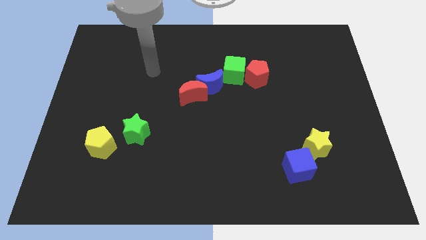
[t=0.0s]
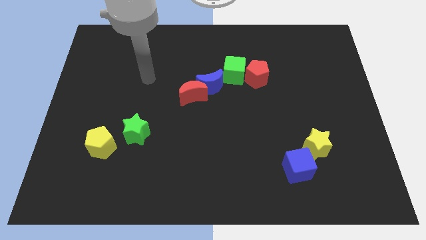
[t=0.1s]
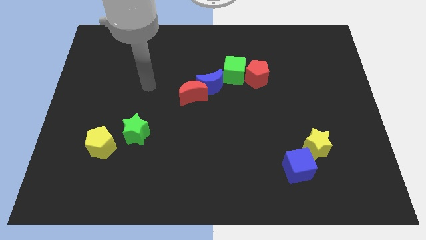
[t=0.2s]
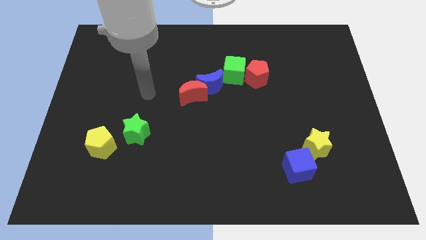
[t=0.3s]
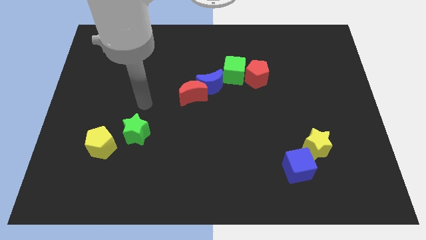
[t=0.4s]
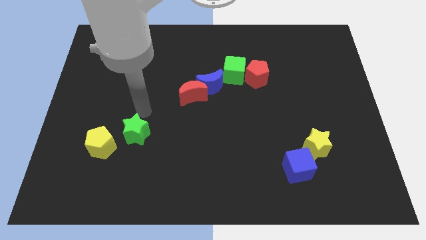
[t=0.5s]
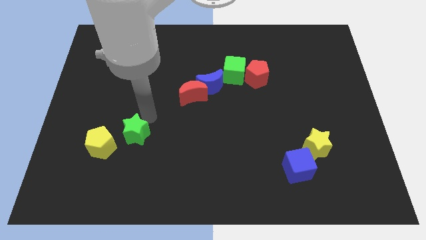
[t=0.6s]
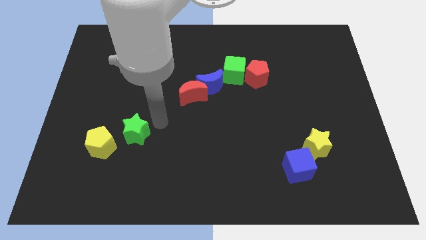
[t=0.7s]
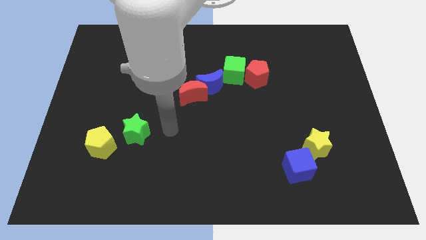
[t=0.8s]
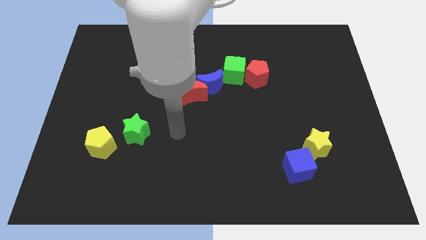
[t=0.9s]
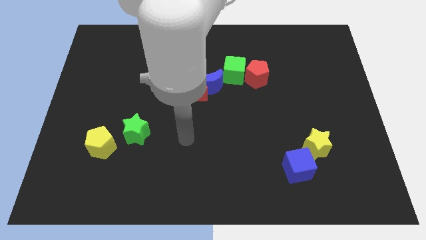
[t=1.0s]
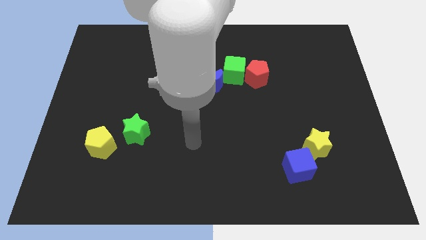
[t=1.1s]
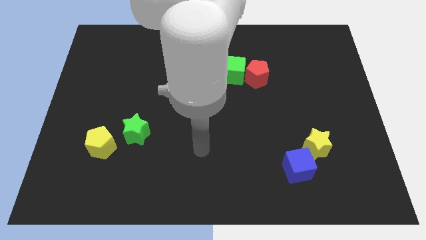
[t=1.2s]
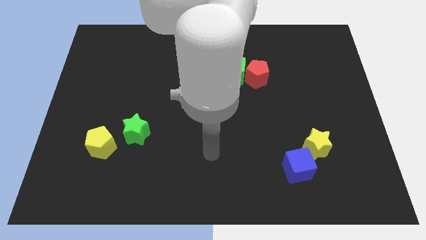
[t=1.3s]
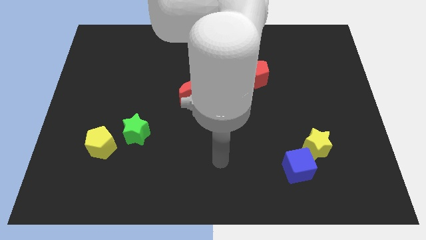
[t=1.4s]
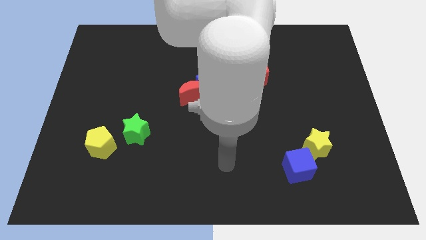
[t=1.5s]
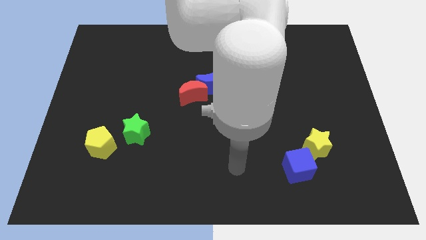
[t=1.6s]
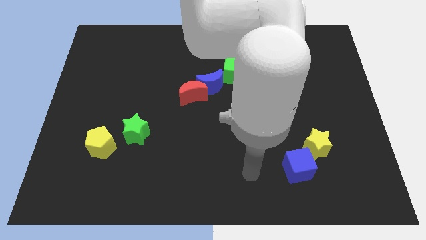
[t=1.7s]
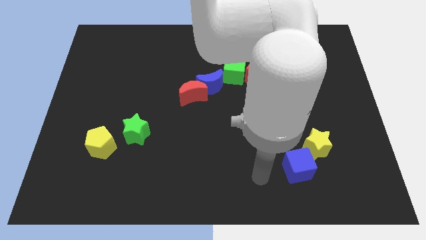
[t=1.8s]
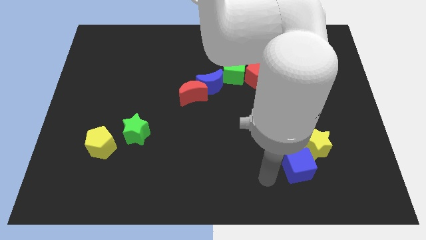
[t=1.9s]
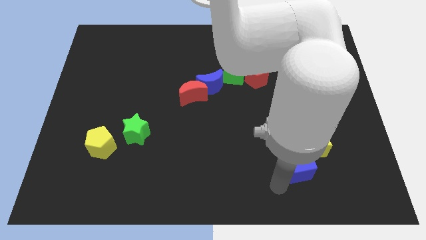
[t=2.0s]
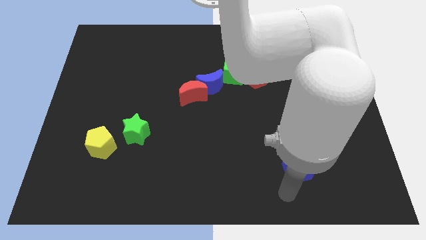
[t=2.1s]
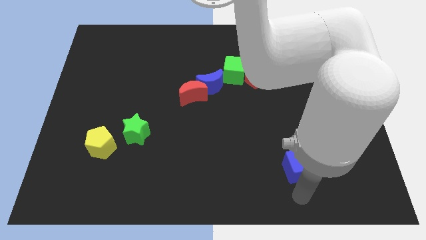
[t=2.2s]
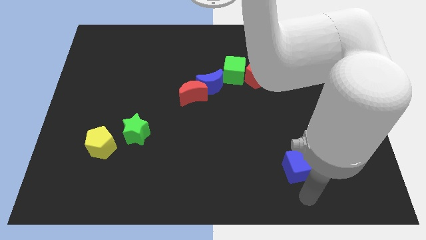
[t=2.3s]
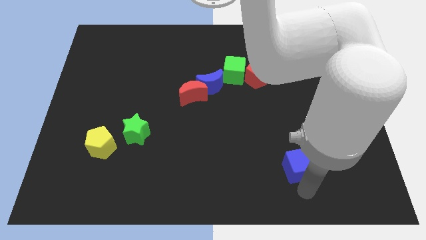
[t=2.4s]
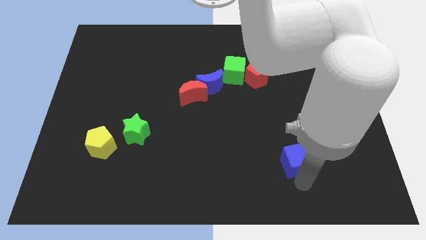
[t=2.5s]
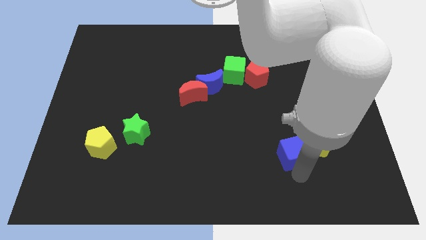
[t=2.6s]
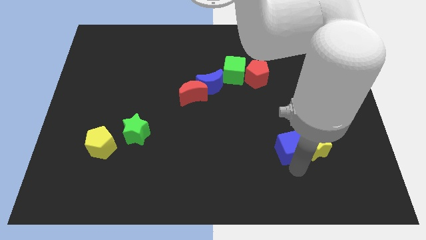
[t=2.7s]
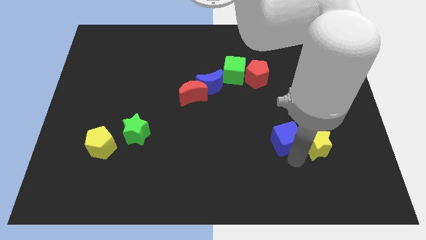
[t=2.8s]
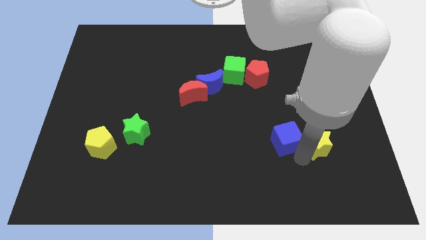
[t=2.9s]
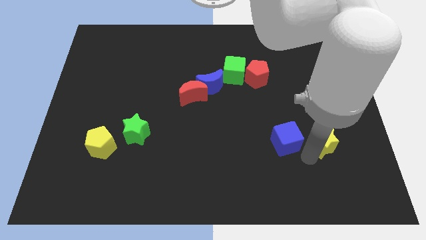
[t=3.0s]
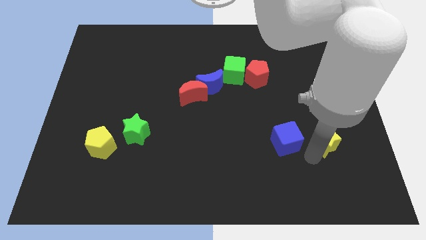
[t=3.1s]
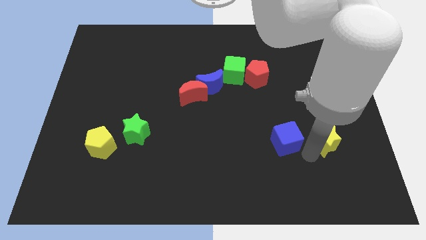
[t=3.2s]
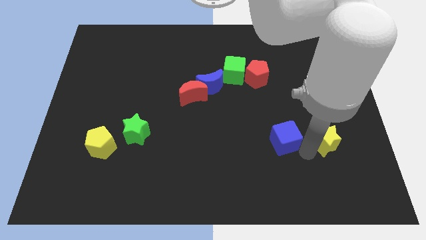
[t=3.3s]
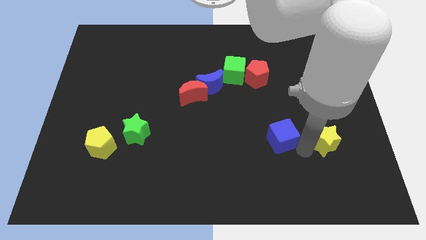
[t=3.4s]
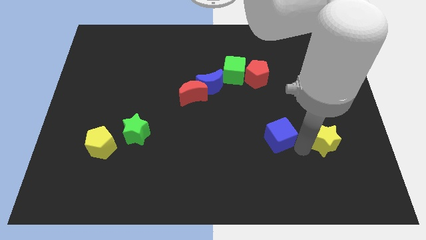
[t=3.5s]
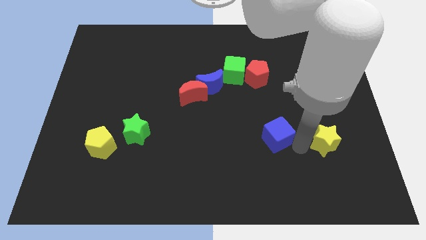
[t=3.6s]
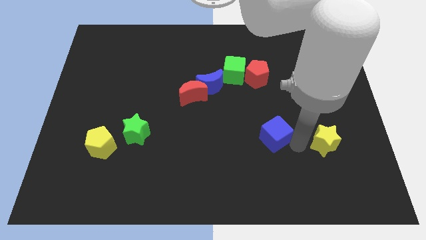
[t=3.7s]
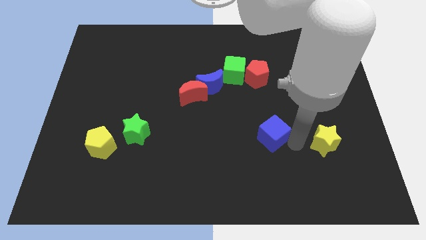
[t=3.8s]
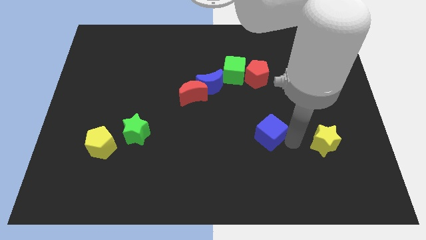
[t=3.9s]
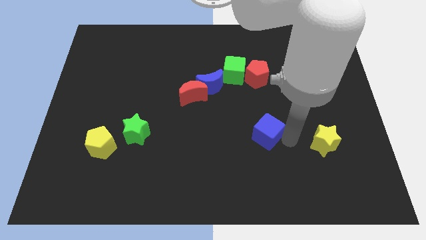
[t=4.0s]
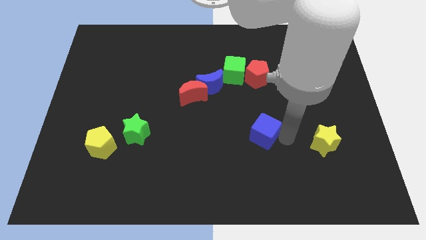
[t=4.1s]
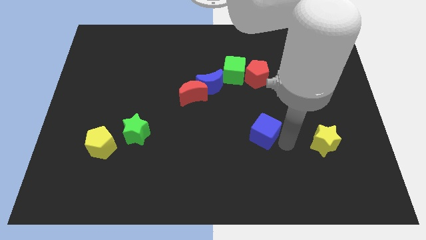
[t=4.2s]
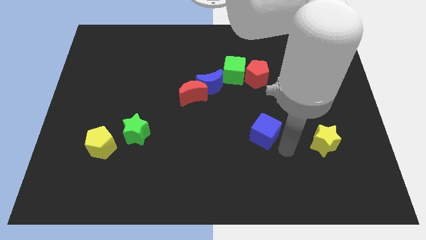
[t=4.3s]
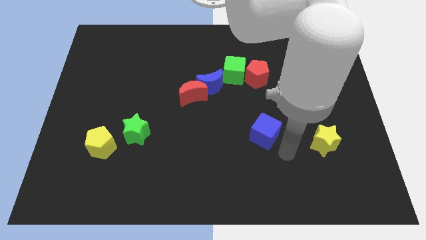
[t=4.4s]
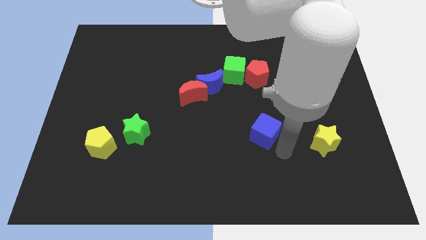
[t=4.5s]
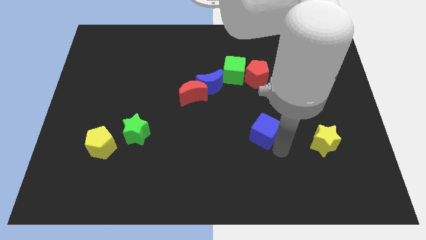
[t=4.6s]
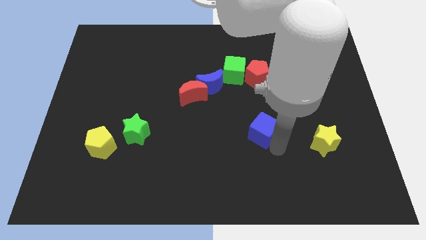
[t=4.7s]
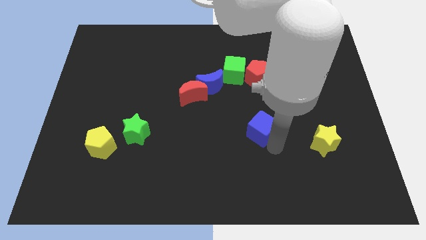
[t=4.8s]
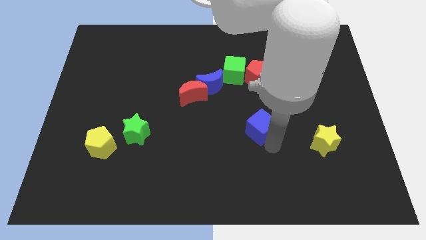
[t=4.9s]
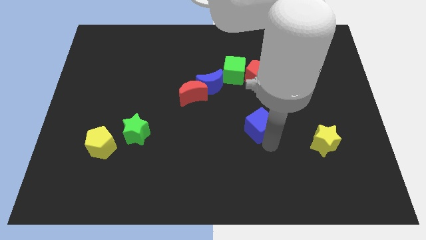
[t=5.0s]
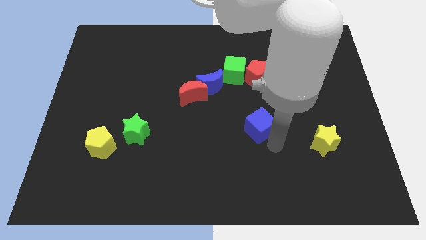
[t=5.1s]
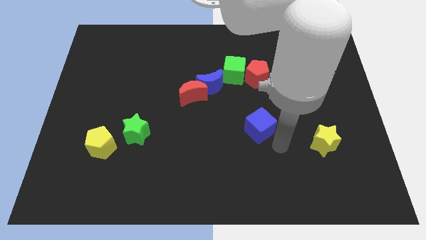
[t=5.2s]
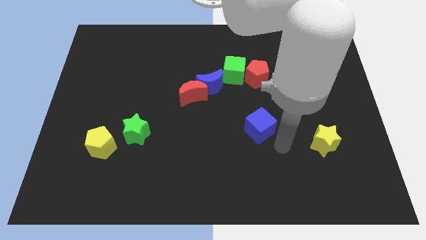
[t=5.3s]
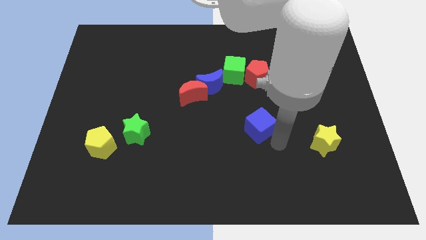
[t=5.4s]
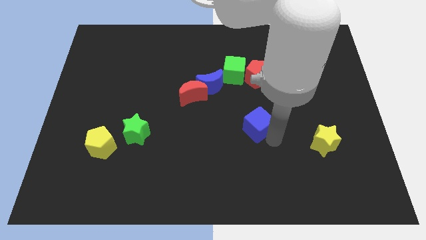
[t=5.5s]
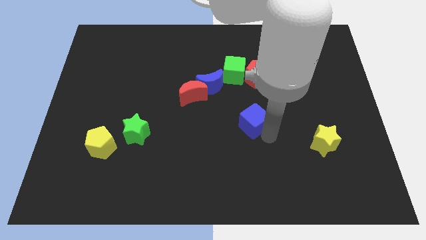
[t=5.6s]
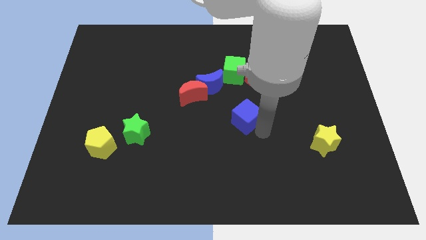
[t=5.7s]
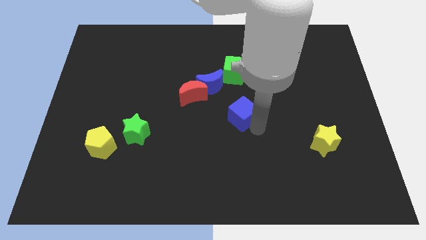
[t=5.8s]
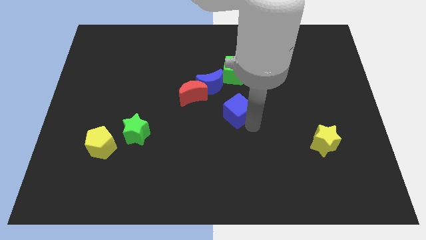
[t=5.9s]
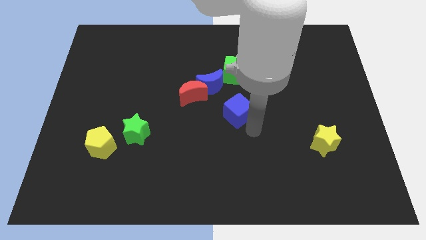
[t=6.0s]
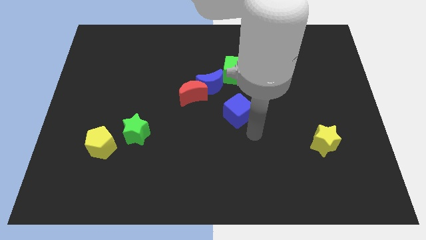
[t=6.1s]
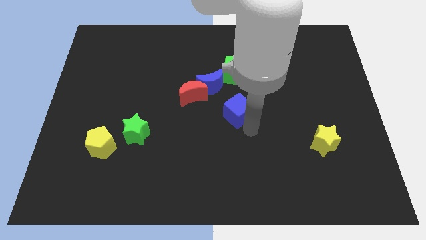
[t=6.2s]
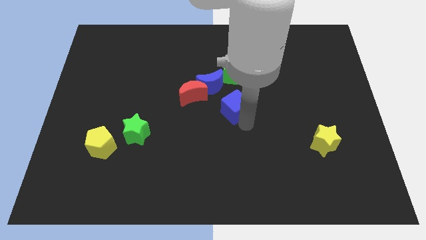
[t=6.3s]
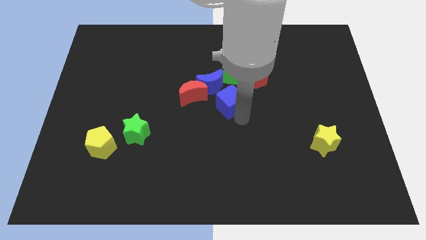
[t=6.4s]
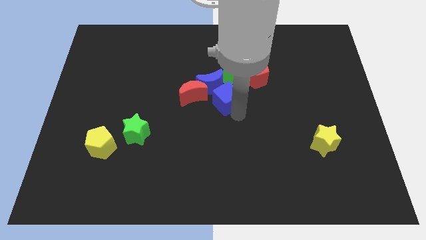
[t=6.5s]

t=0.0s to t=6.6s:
move the blue cube next to the blue moon

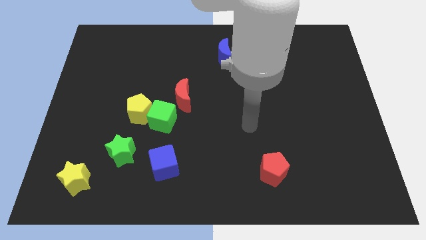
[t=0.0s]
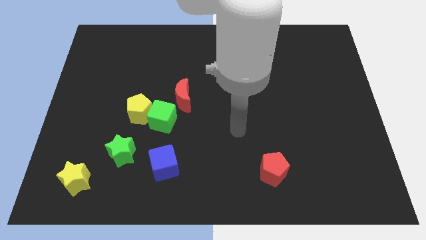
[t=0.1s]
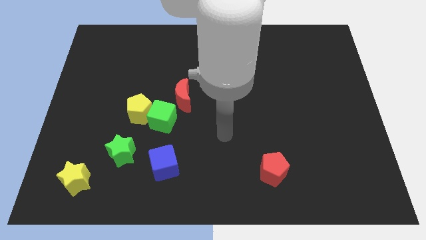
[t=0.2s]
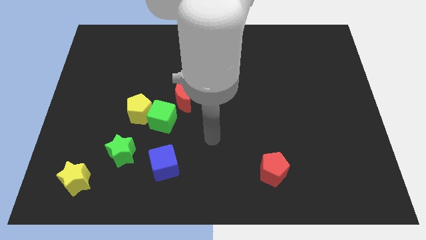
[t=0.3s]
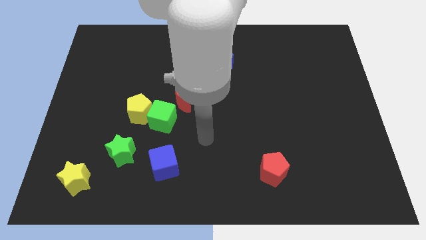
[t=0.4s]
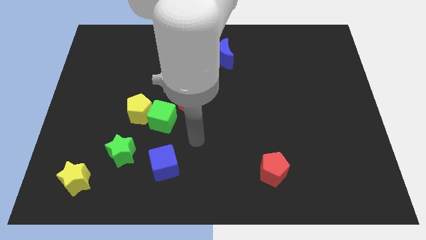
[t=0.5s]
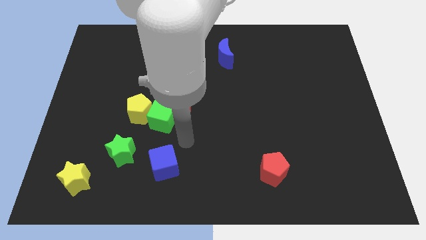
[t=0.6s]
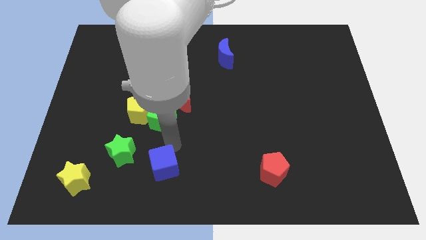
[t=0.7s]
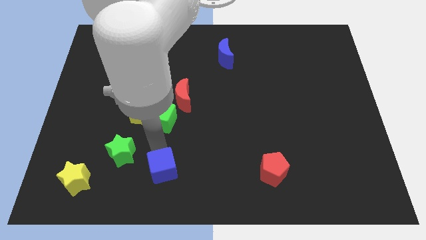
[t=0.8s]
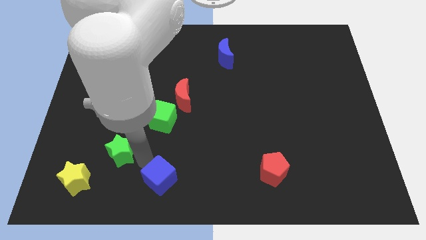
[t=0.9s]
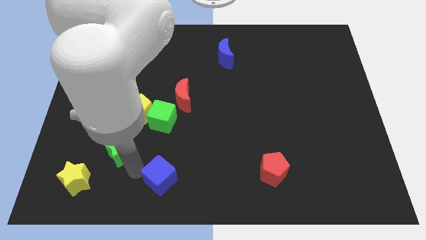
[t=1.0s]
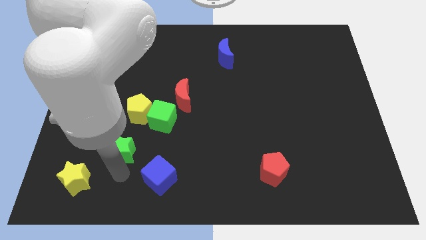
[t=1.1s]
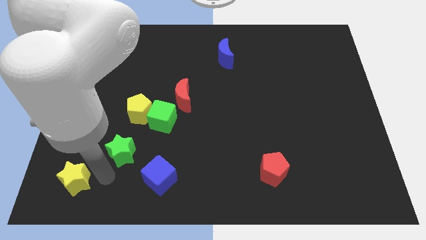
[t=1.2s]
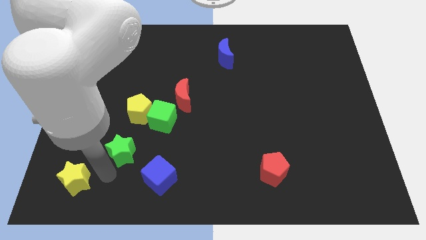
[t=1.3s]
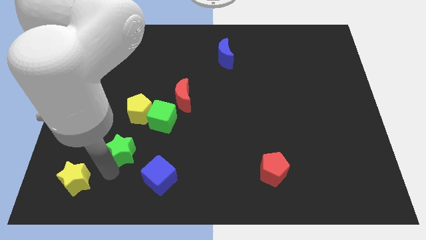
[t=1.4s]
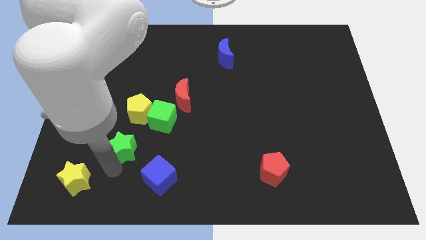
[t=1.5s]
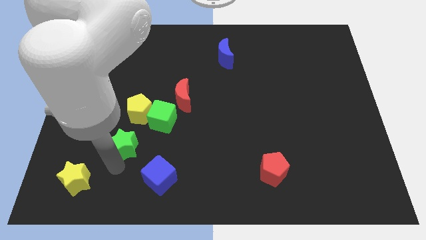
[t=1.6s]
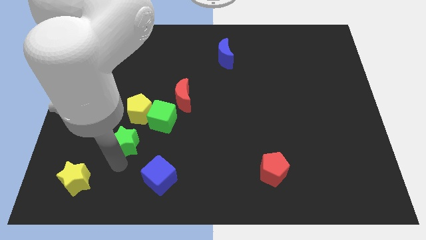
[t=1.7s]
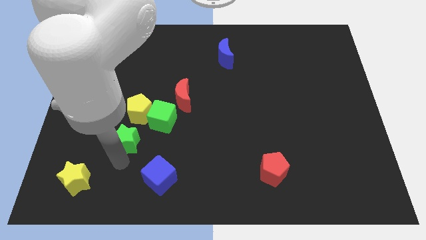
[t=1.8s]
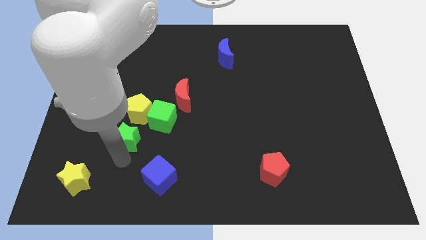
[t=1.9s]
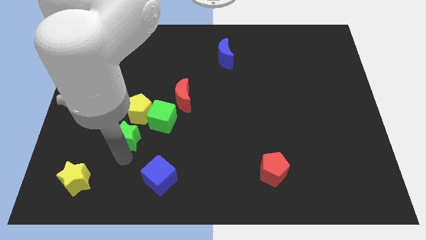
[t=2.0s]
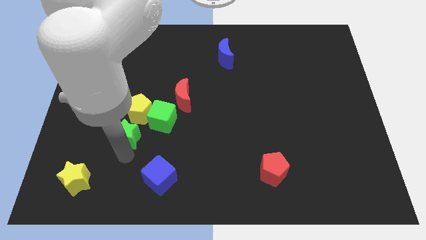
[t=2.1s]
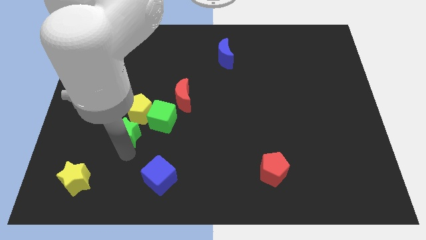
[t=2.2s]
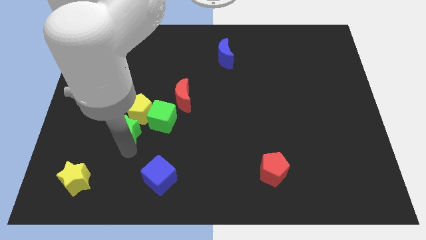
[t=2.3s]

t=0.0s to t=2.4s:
slide the green star to the yellow pentagon
